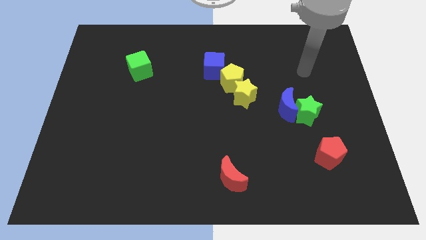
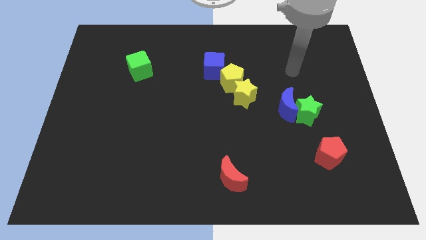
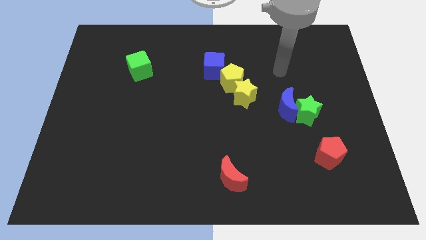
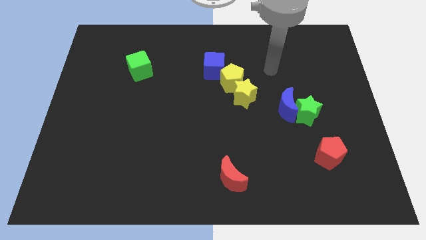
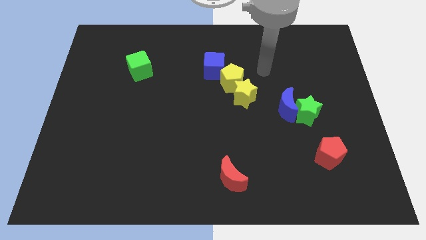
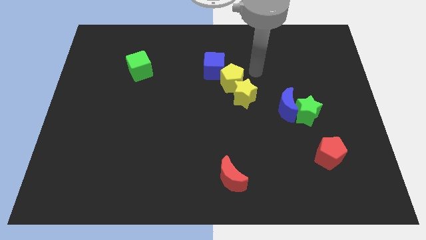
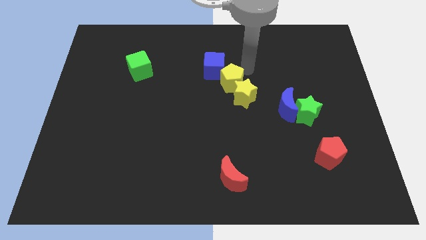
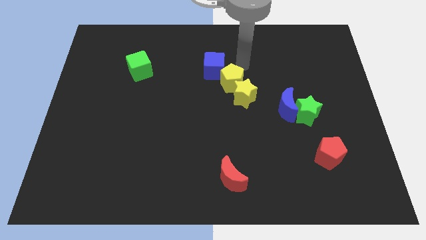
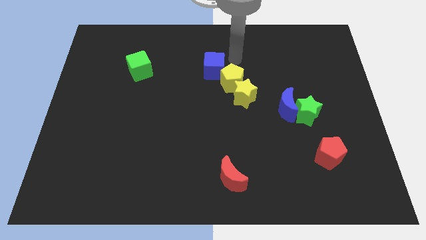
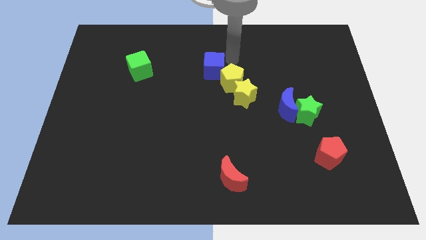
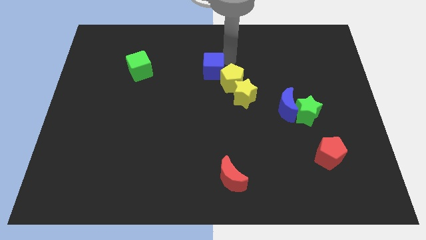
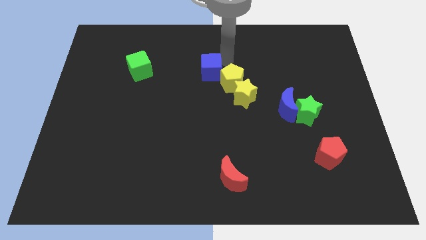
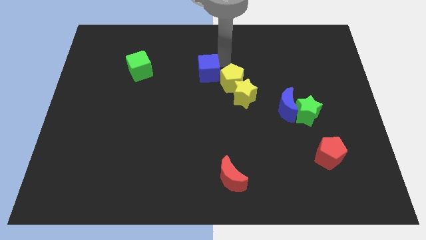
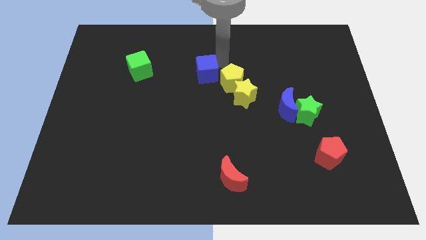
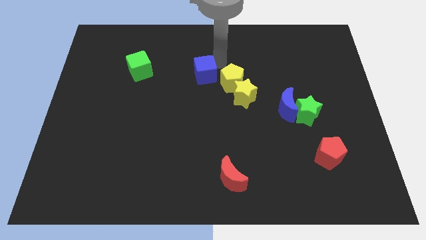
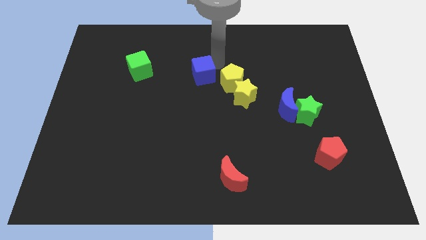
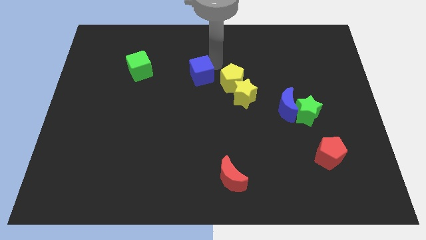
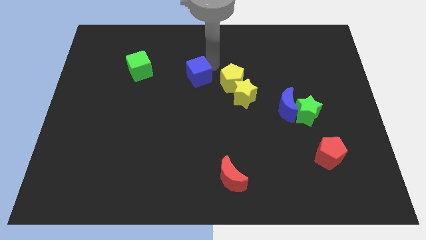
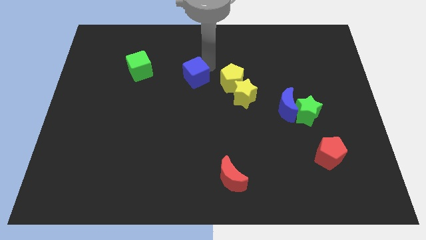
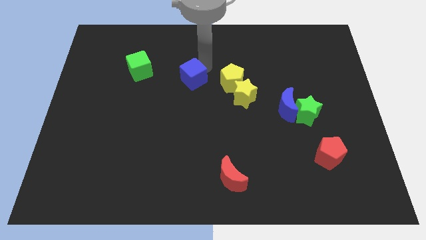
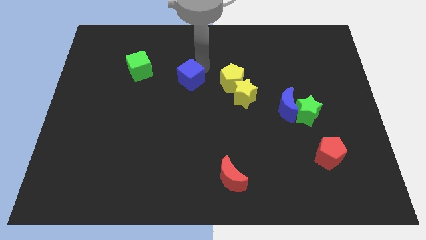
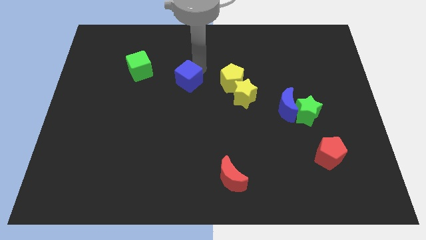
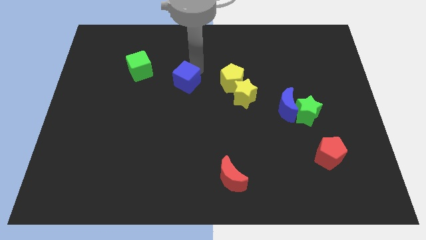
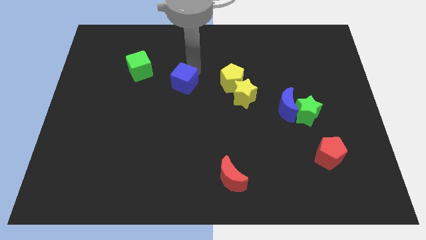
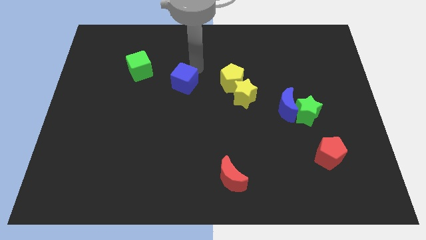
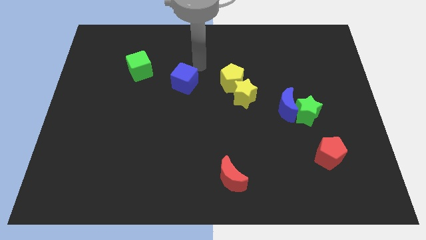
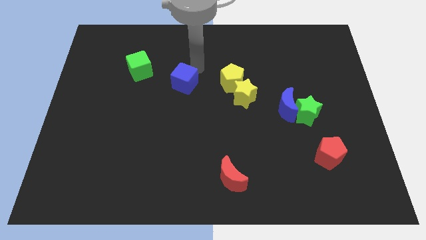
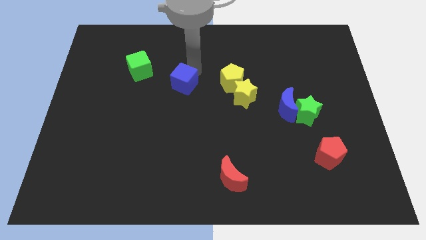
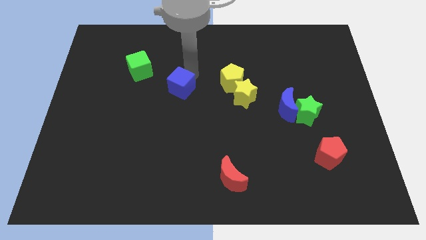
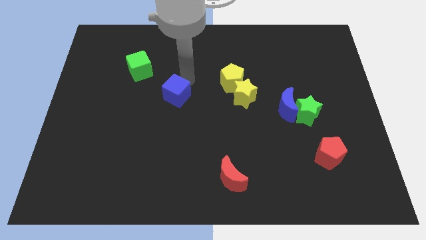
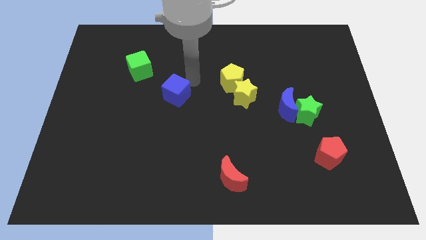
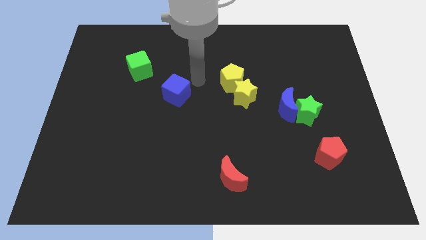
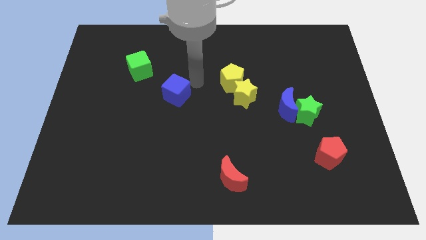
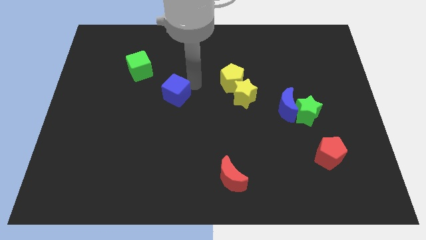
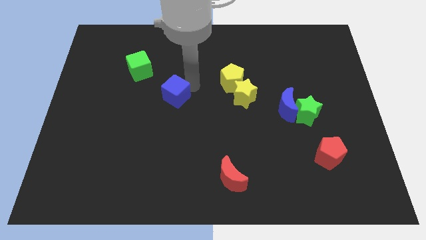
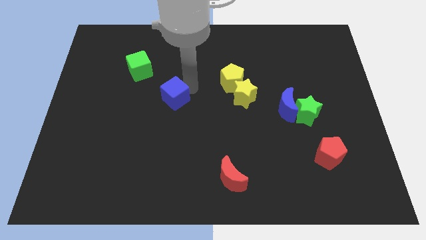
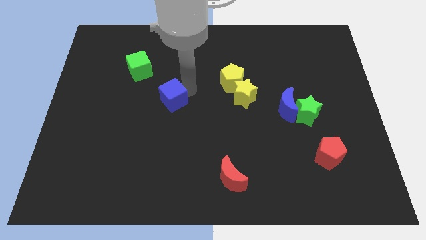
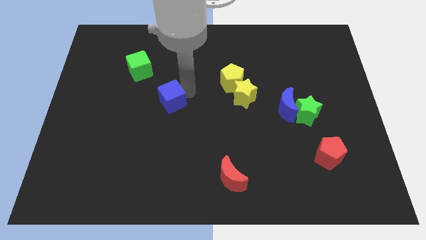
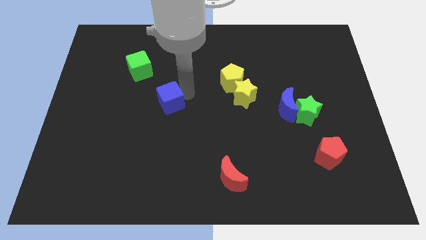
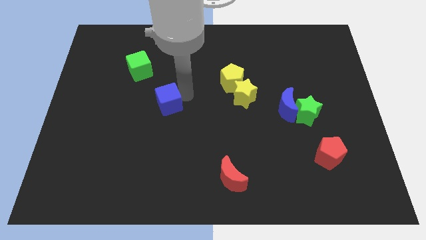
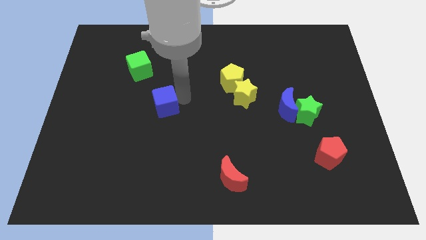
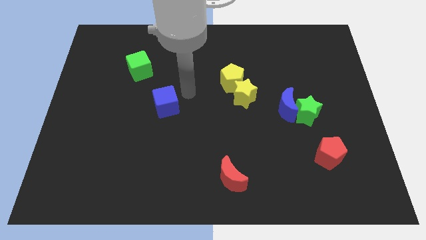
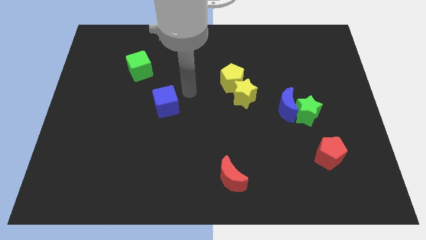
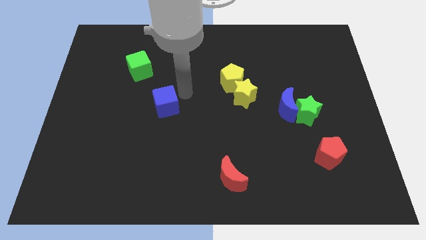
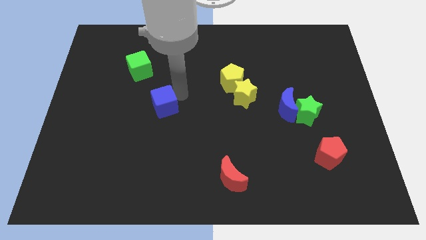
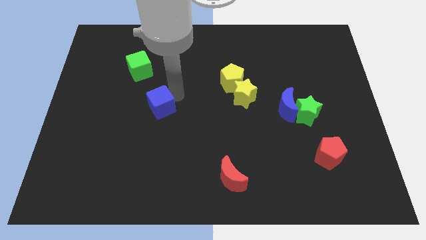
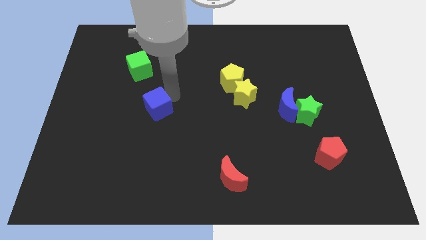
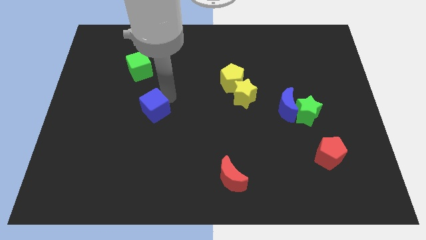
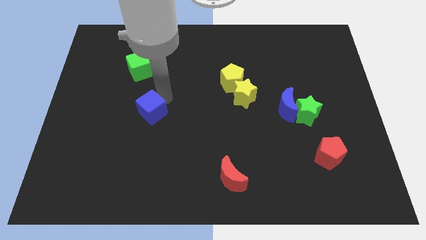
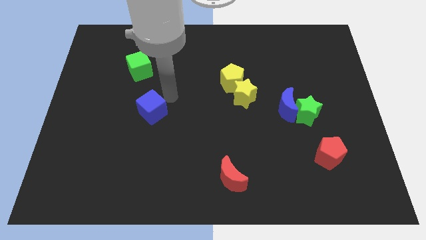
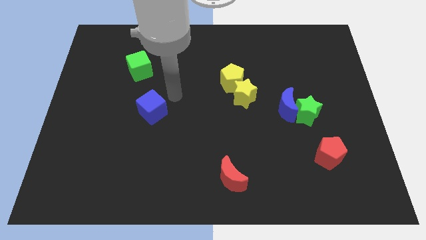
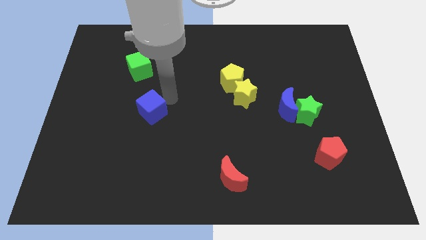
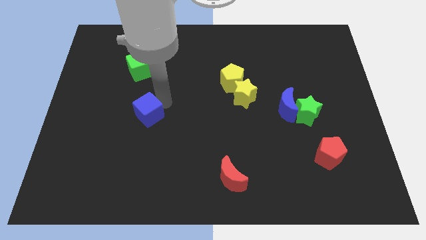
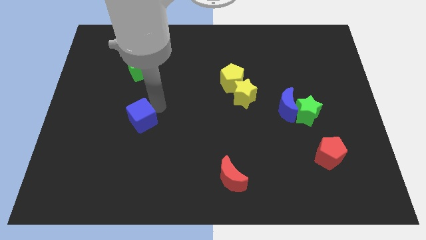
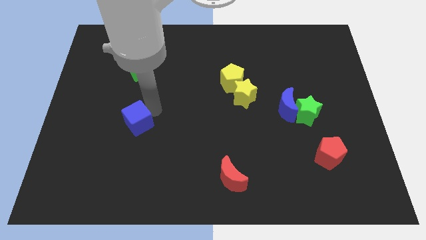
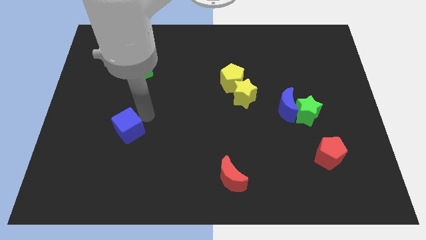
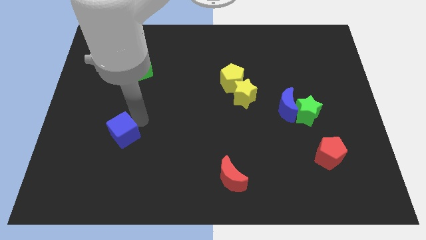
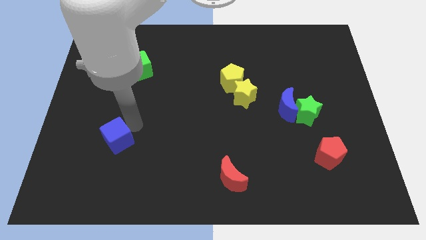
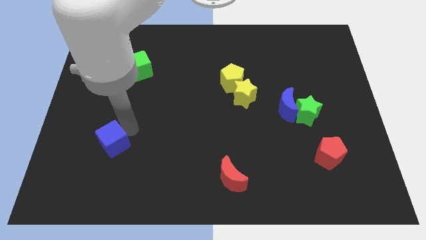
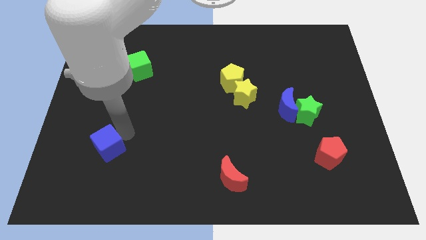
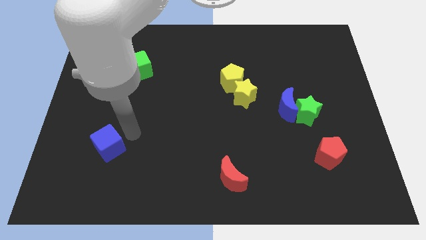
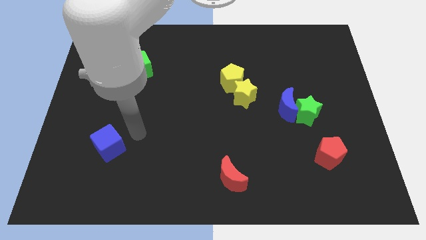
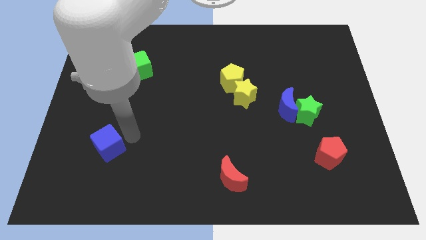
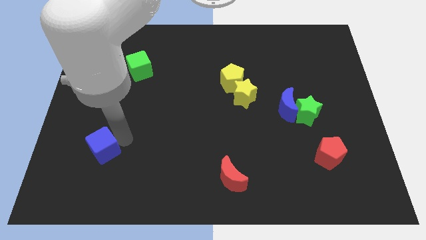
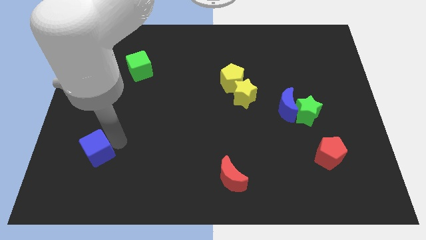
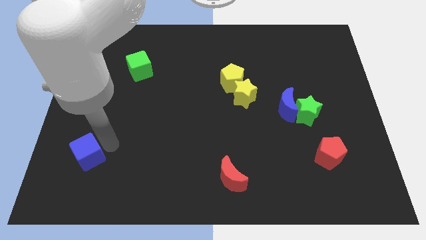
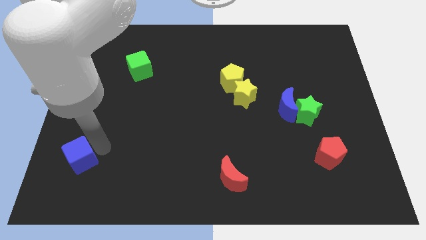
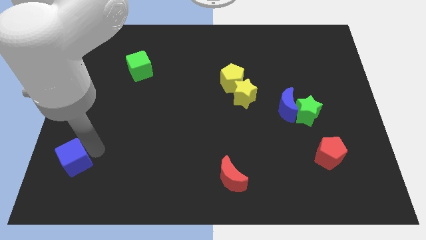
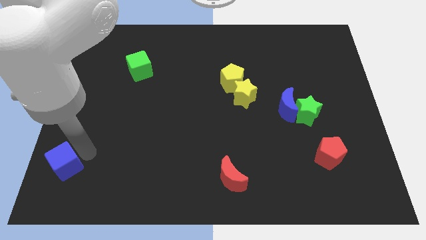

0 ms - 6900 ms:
push the blue cube to the lower left corner
